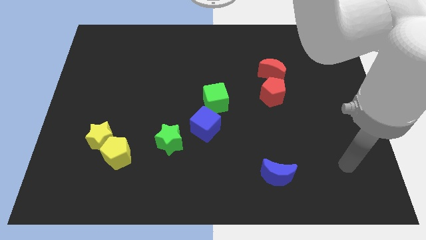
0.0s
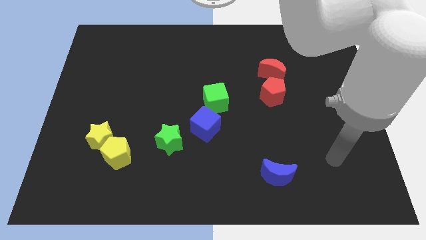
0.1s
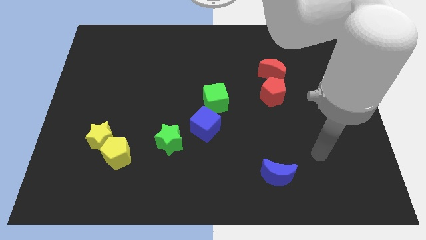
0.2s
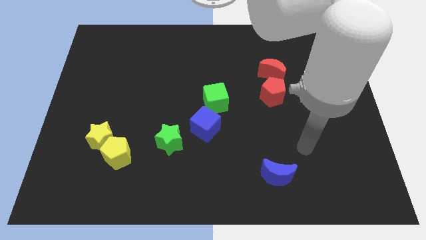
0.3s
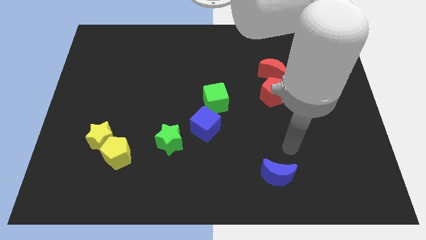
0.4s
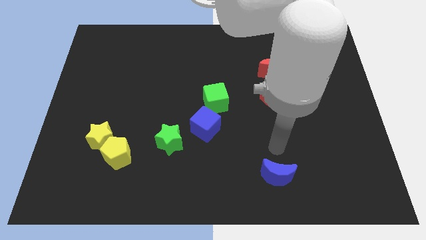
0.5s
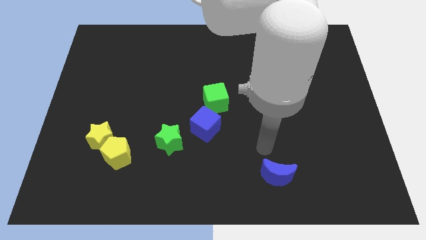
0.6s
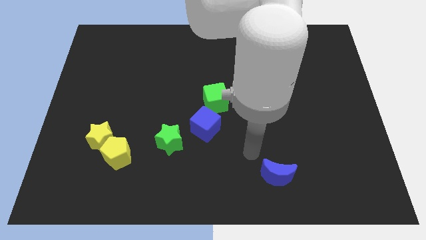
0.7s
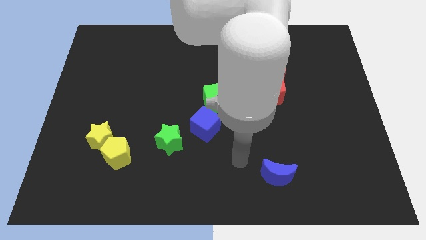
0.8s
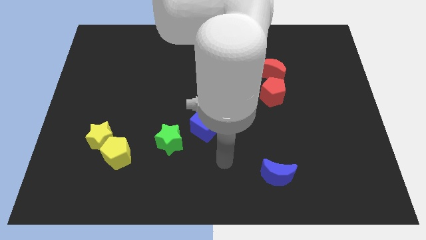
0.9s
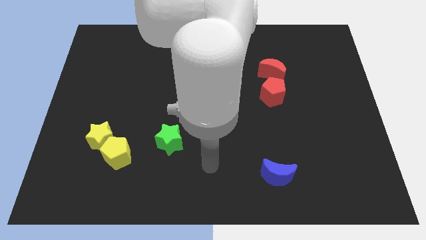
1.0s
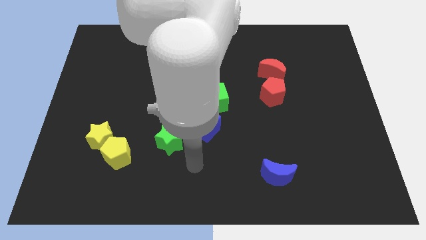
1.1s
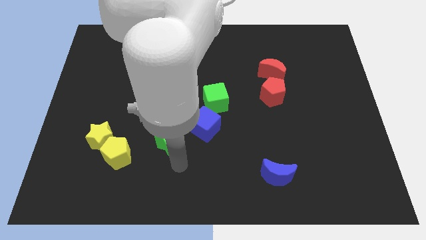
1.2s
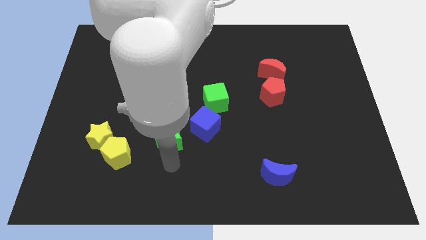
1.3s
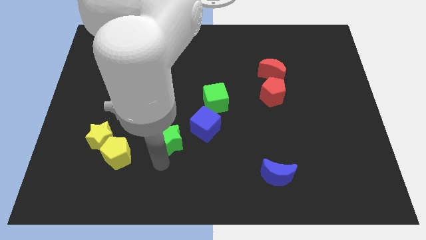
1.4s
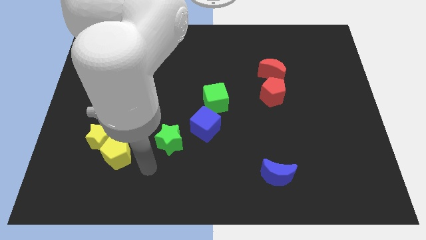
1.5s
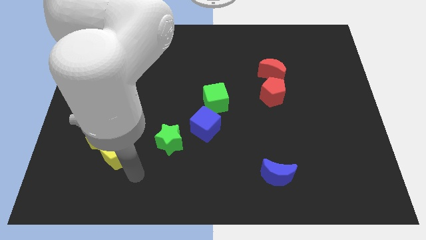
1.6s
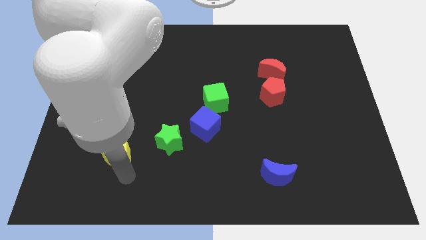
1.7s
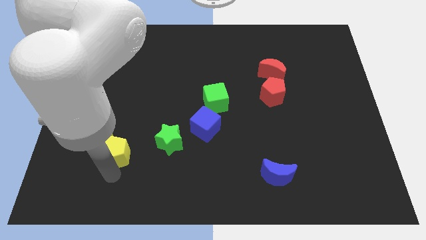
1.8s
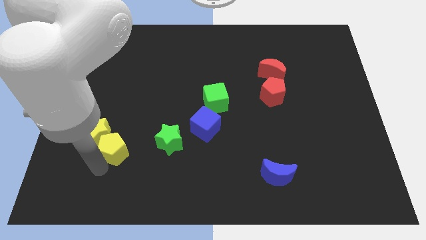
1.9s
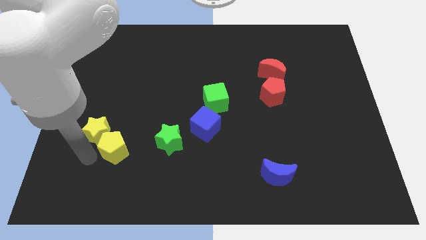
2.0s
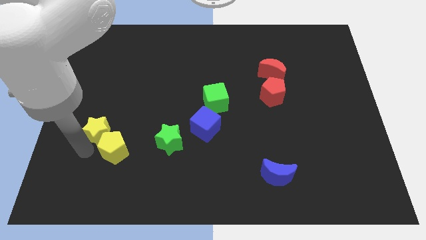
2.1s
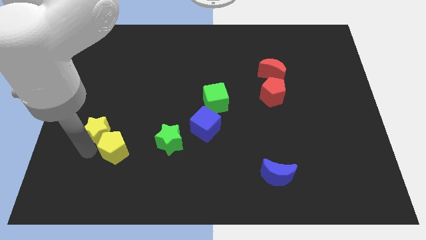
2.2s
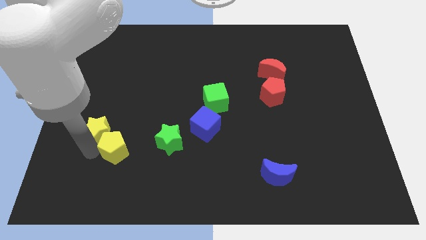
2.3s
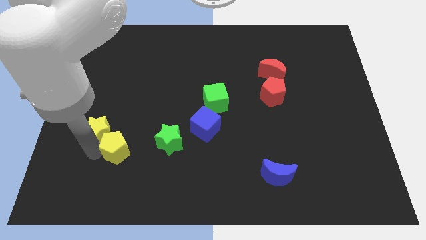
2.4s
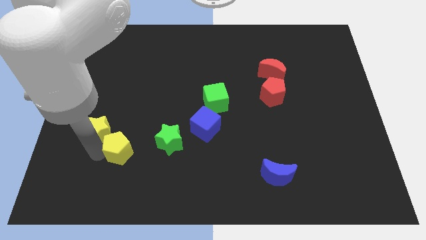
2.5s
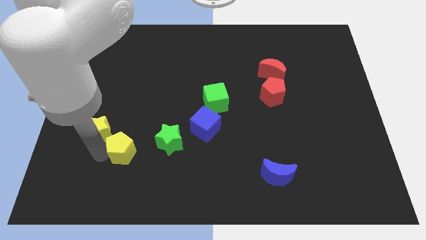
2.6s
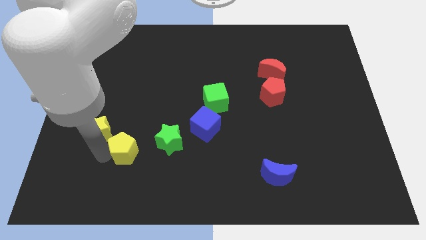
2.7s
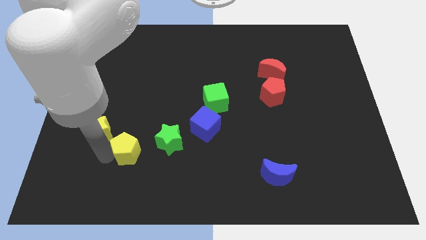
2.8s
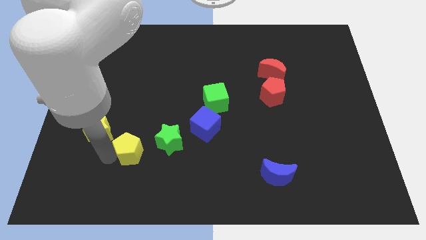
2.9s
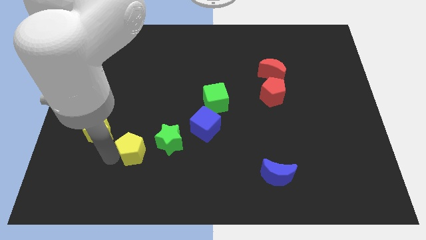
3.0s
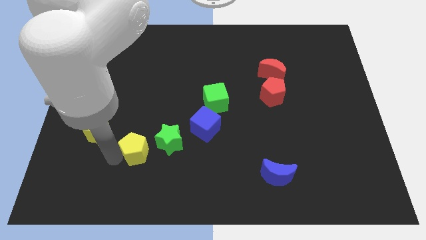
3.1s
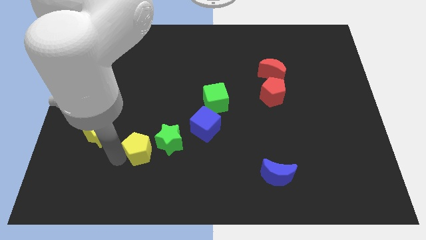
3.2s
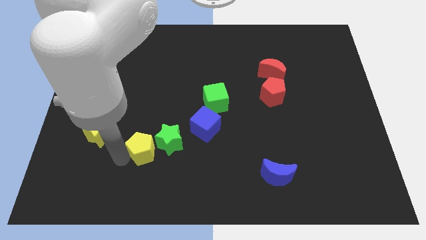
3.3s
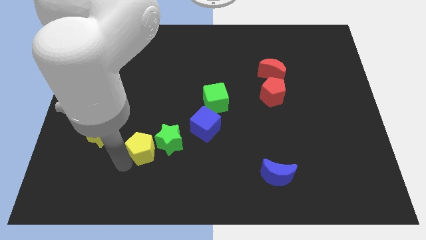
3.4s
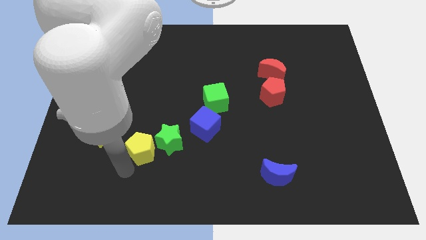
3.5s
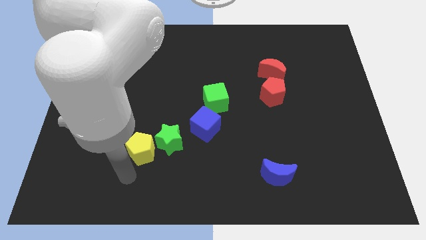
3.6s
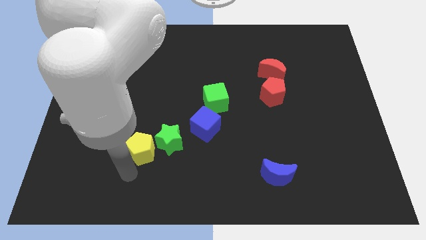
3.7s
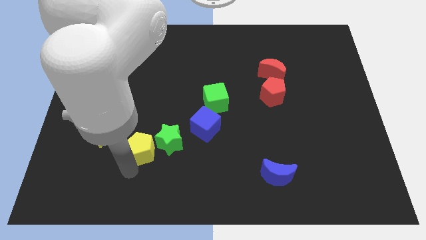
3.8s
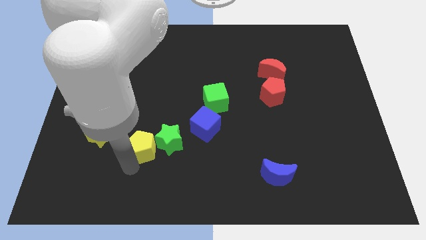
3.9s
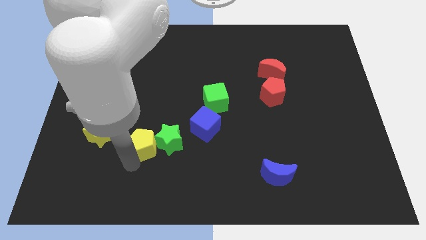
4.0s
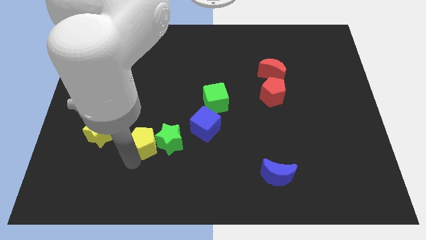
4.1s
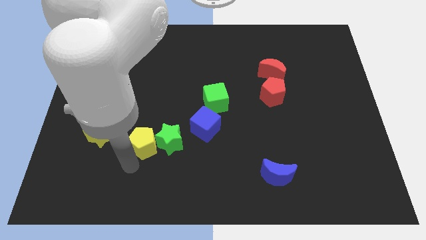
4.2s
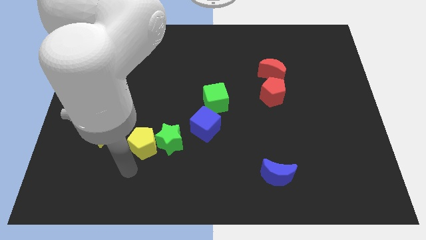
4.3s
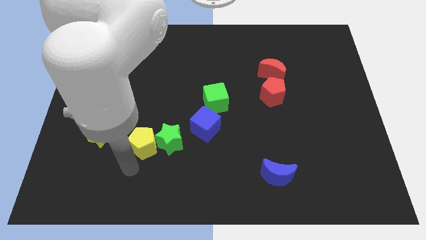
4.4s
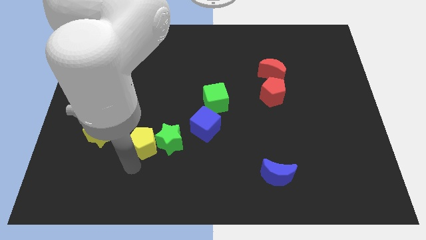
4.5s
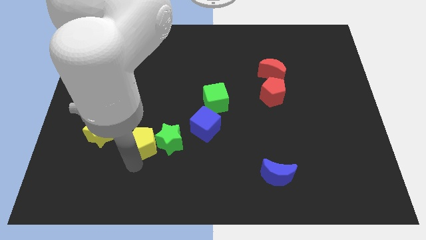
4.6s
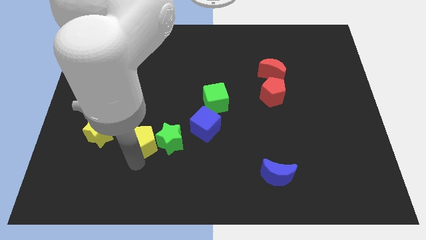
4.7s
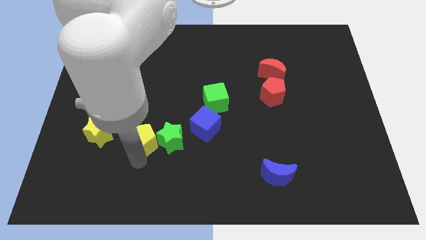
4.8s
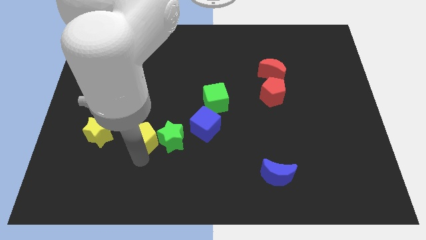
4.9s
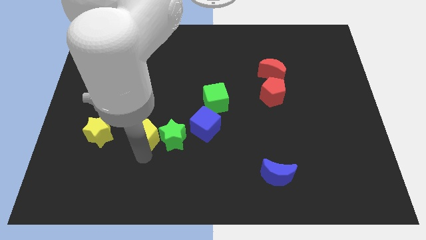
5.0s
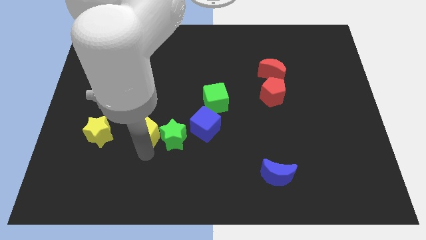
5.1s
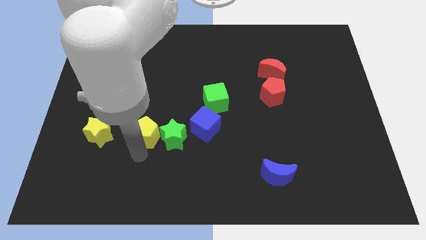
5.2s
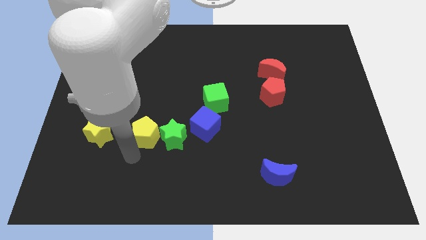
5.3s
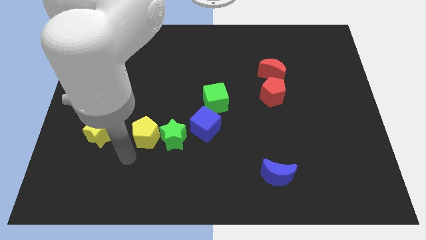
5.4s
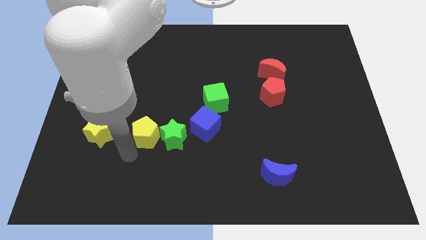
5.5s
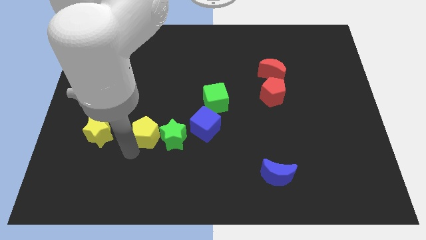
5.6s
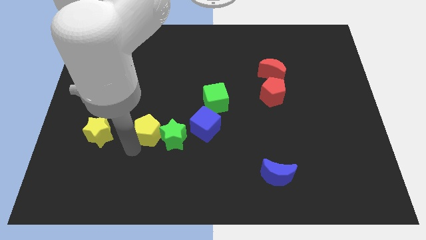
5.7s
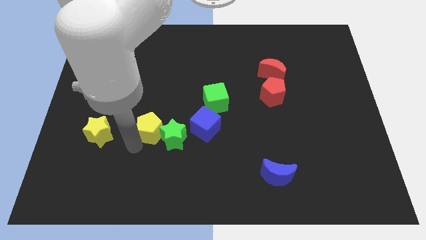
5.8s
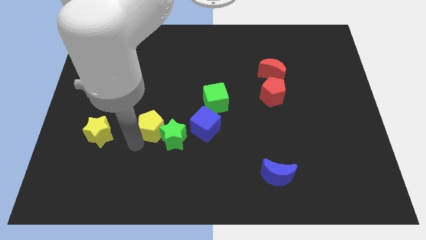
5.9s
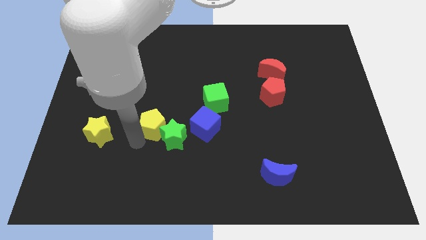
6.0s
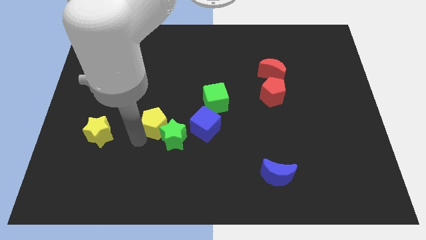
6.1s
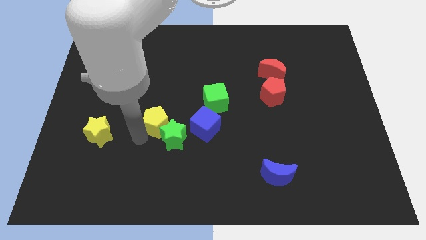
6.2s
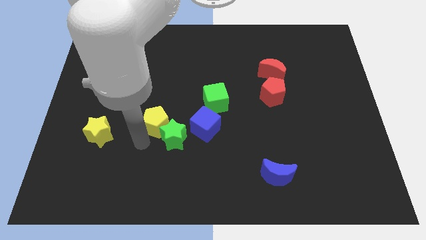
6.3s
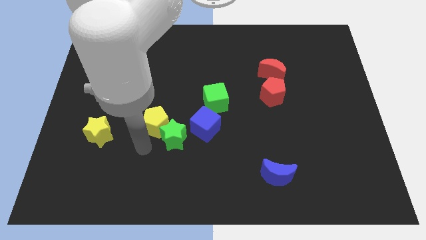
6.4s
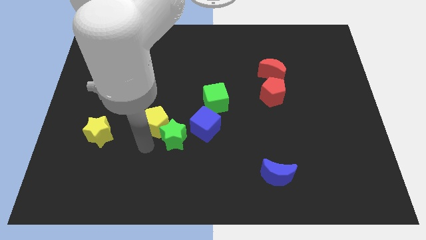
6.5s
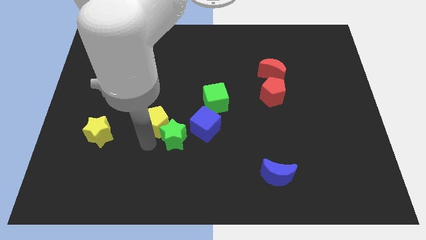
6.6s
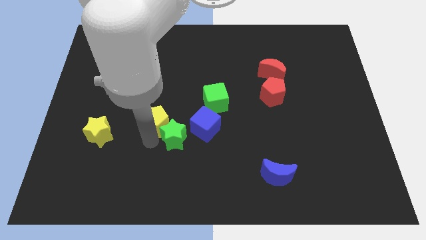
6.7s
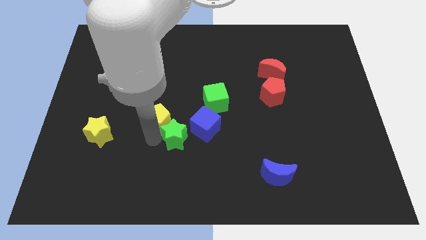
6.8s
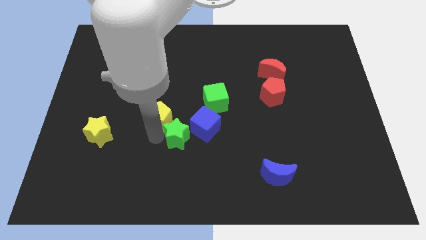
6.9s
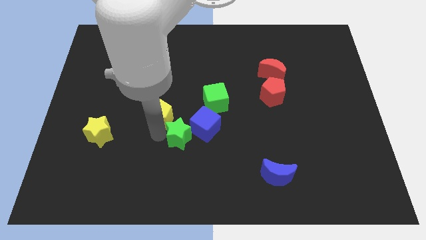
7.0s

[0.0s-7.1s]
push the yellow pentagon to the left of the green cube
